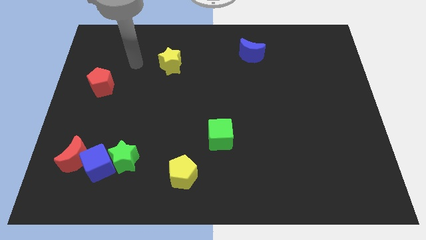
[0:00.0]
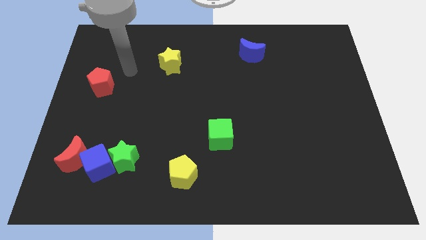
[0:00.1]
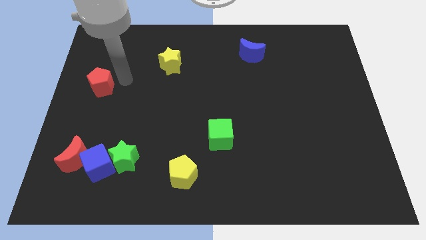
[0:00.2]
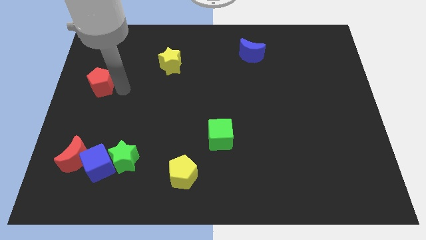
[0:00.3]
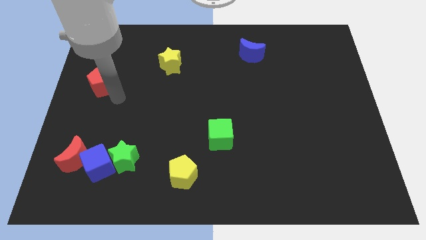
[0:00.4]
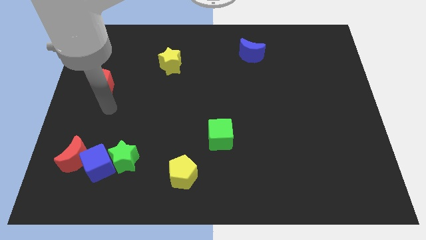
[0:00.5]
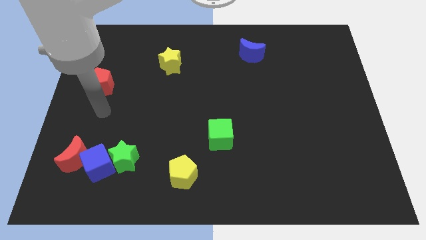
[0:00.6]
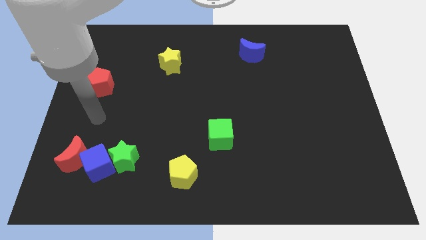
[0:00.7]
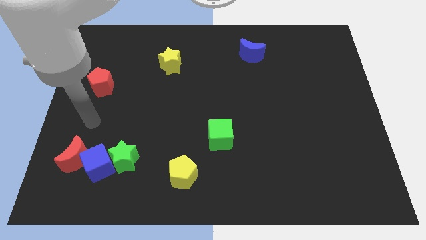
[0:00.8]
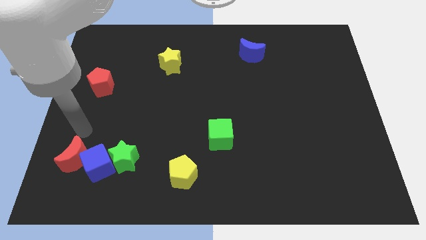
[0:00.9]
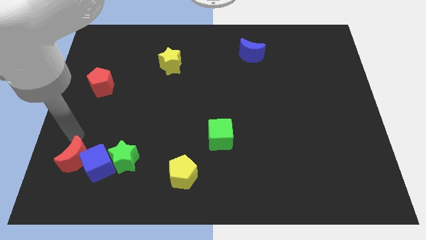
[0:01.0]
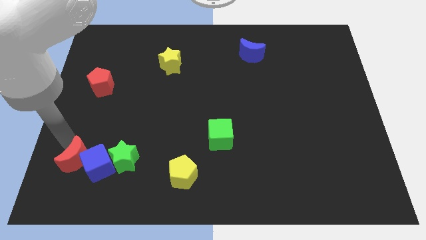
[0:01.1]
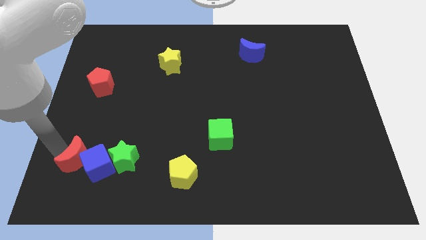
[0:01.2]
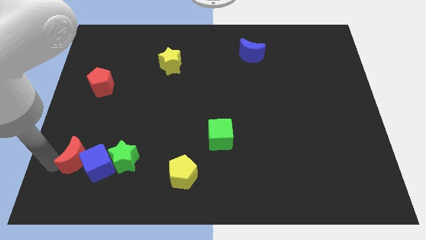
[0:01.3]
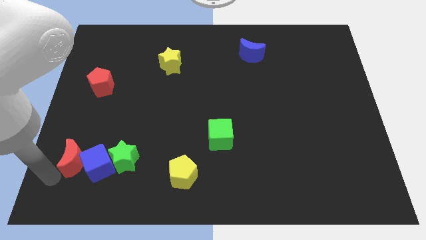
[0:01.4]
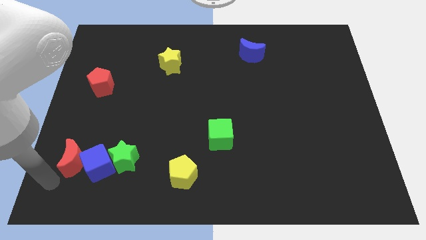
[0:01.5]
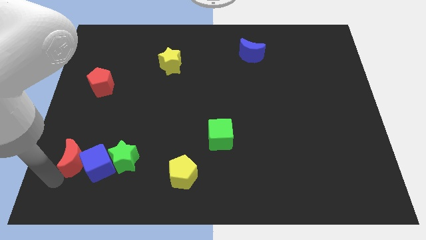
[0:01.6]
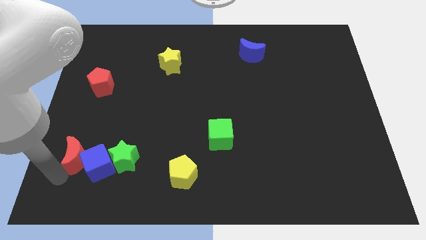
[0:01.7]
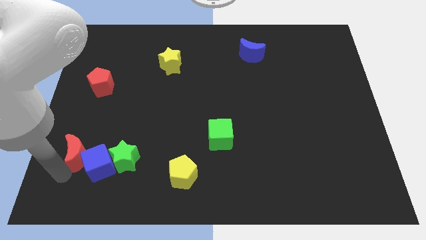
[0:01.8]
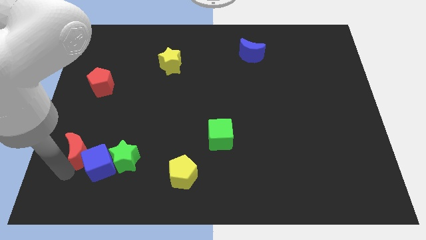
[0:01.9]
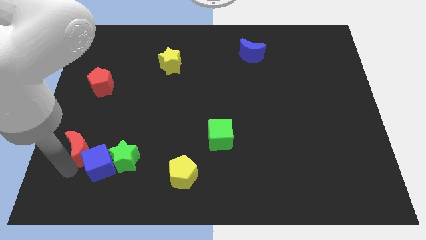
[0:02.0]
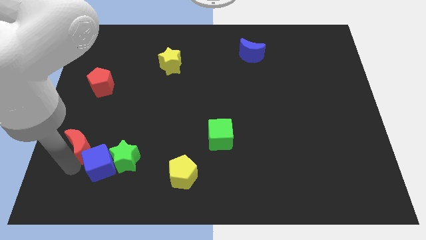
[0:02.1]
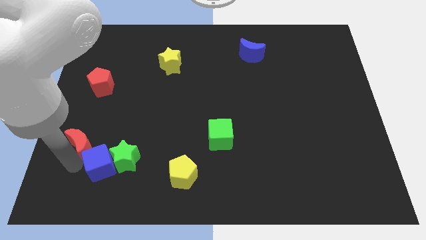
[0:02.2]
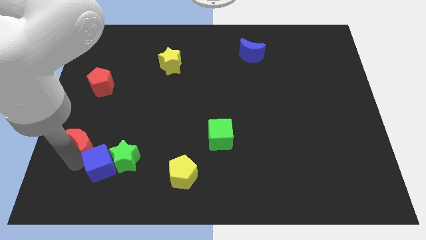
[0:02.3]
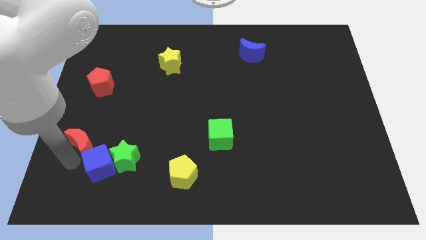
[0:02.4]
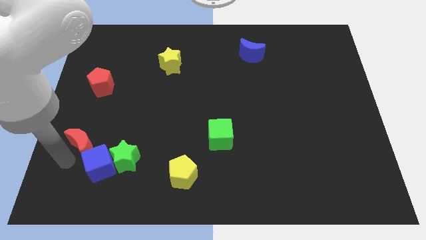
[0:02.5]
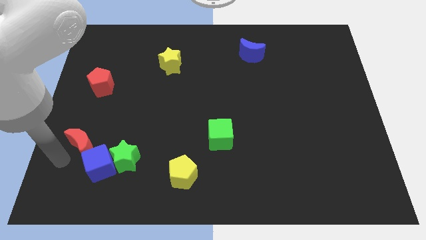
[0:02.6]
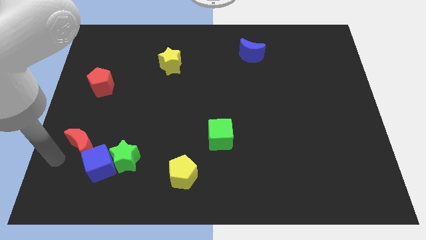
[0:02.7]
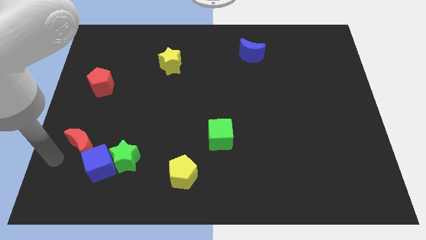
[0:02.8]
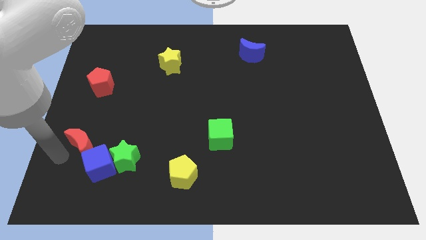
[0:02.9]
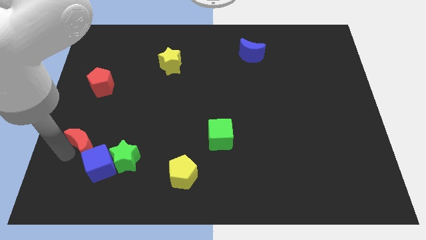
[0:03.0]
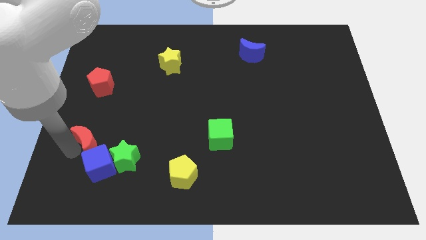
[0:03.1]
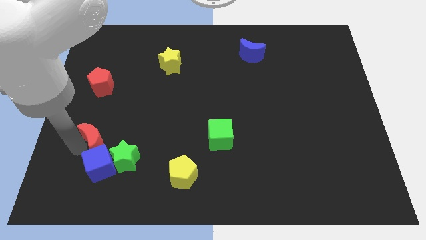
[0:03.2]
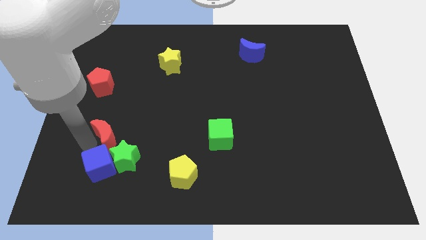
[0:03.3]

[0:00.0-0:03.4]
slide the red moon up and to the right diagonally somewhat

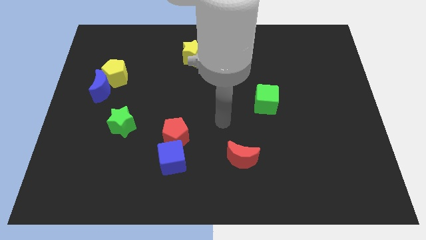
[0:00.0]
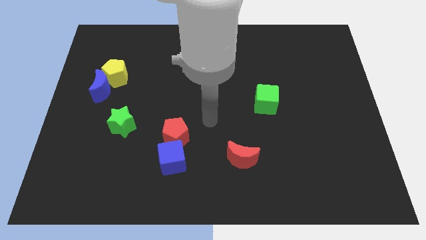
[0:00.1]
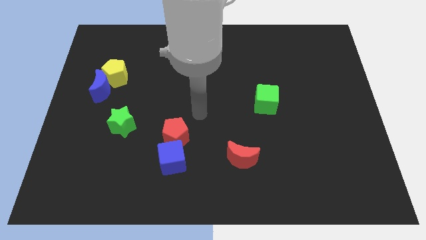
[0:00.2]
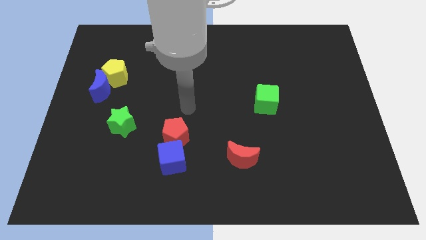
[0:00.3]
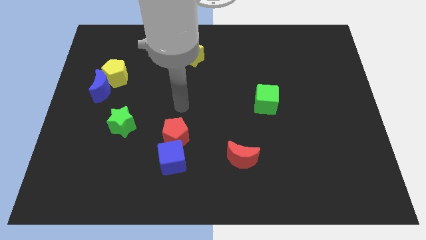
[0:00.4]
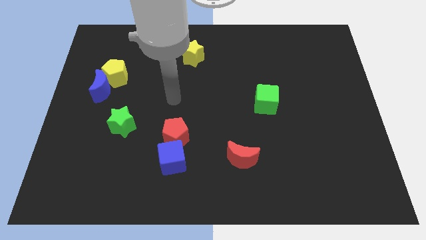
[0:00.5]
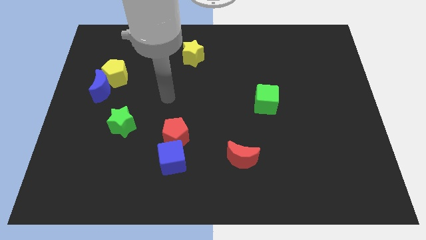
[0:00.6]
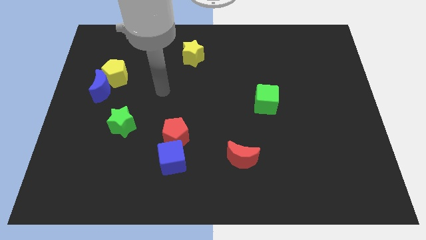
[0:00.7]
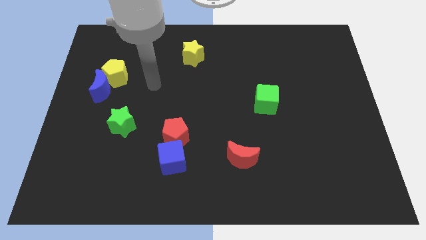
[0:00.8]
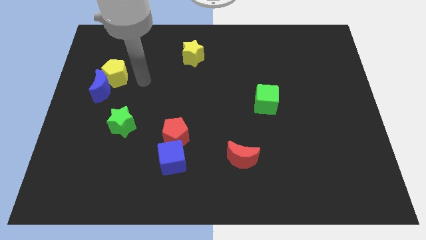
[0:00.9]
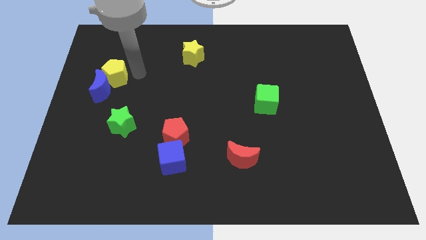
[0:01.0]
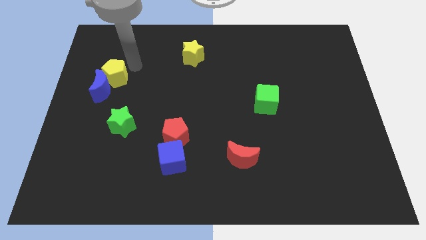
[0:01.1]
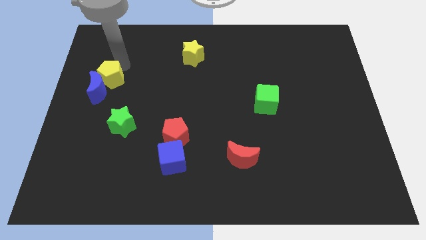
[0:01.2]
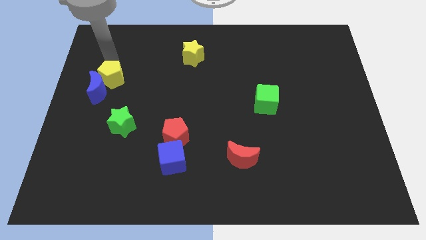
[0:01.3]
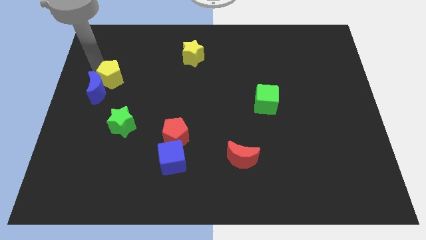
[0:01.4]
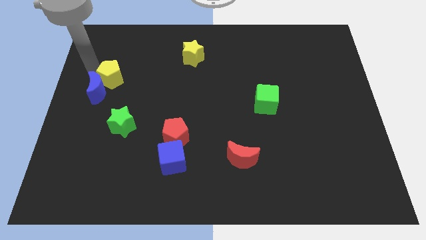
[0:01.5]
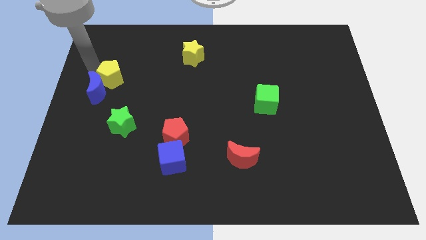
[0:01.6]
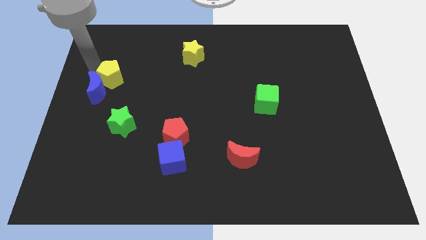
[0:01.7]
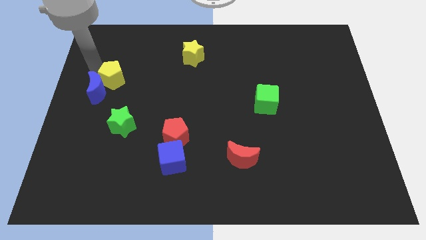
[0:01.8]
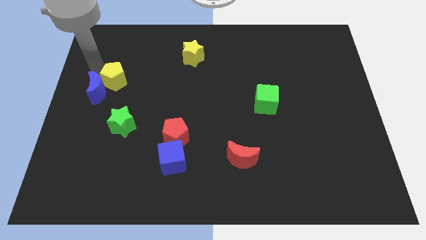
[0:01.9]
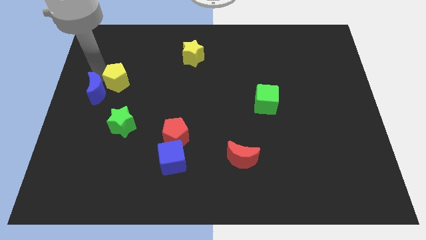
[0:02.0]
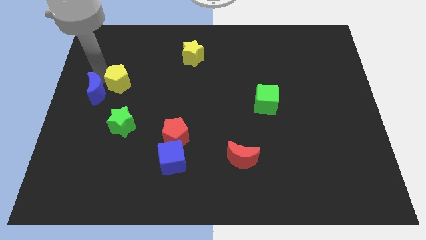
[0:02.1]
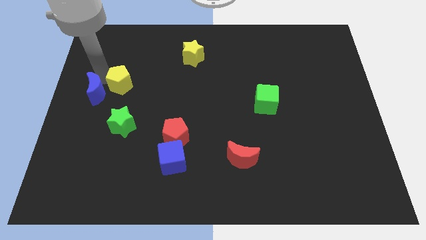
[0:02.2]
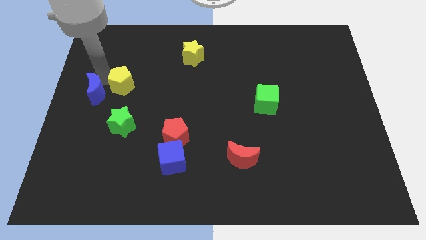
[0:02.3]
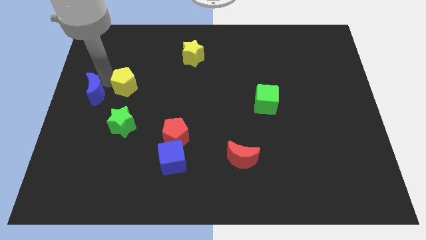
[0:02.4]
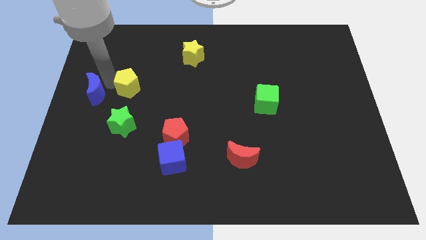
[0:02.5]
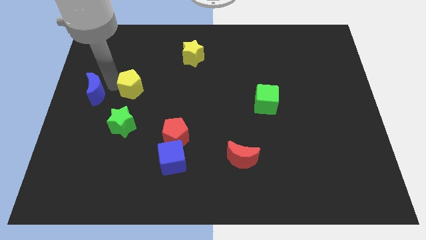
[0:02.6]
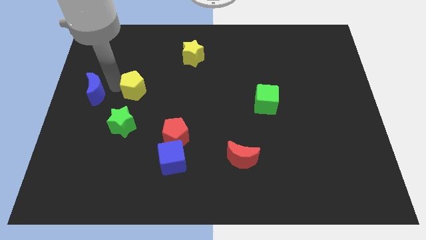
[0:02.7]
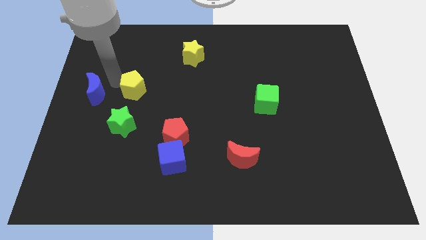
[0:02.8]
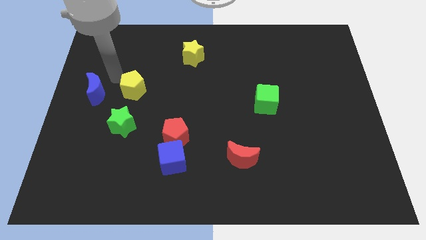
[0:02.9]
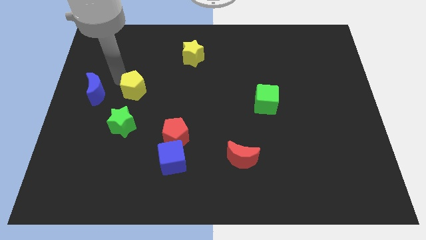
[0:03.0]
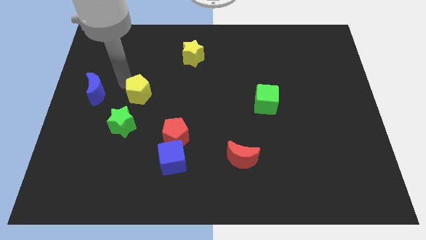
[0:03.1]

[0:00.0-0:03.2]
slightly slide the yellow pentagon diagonally down and to the right

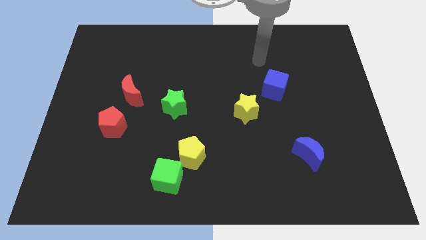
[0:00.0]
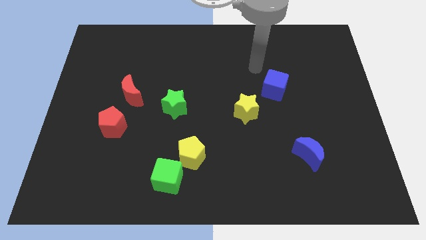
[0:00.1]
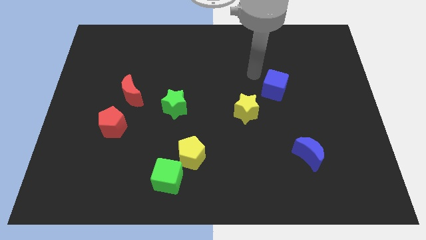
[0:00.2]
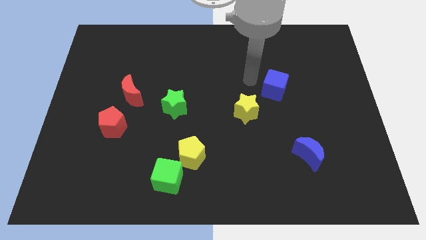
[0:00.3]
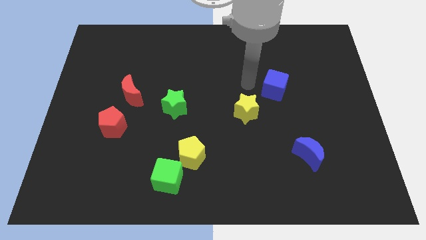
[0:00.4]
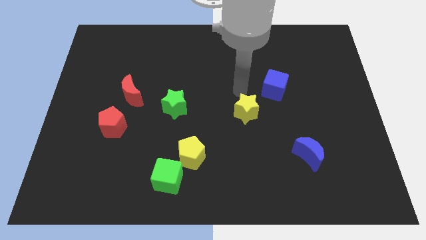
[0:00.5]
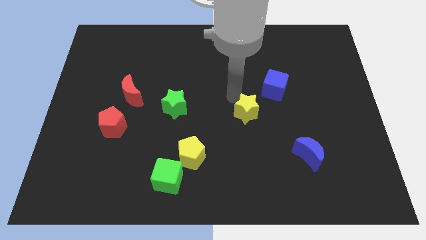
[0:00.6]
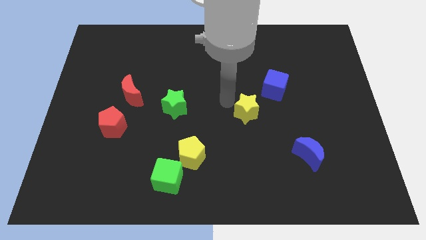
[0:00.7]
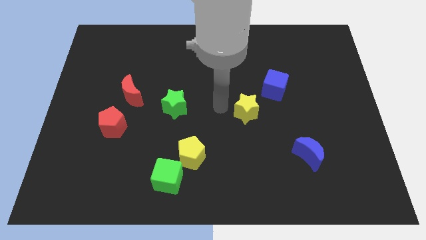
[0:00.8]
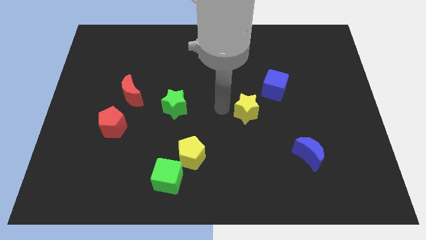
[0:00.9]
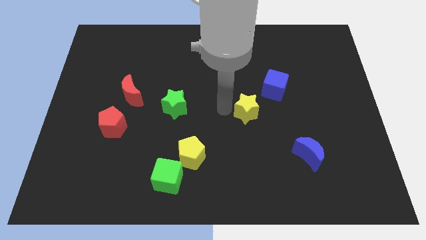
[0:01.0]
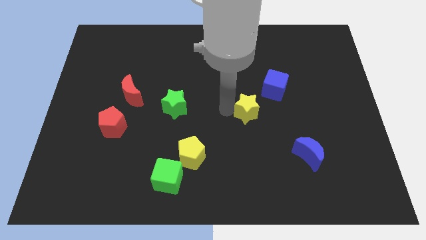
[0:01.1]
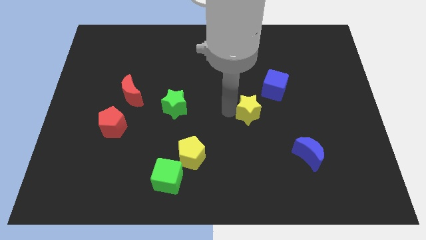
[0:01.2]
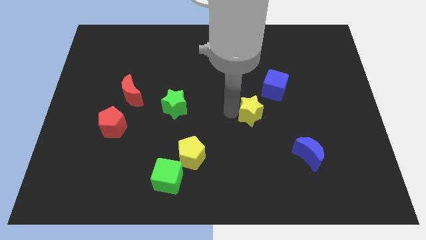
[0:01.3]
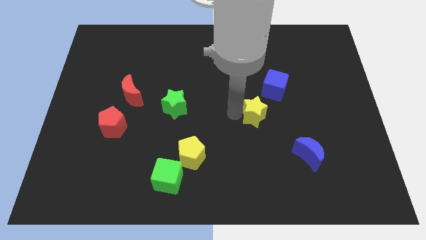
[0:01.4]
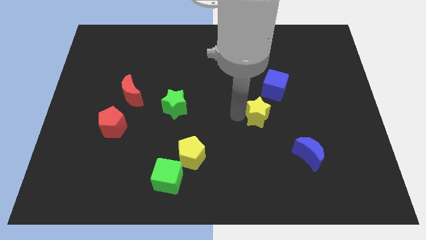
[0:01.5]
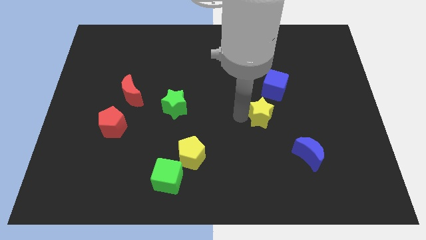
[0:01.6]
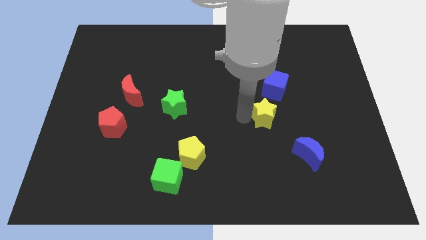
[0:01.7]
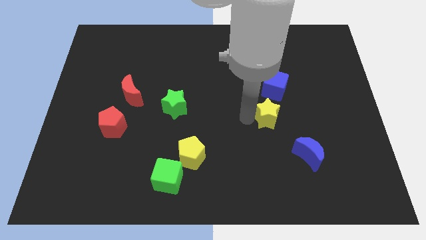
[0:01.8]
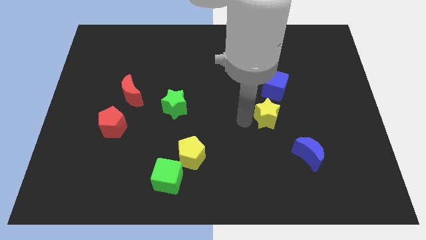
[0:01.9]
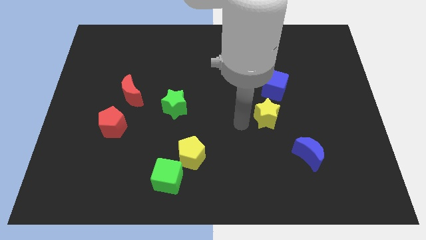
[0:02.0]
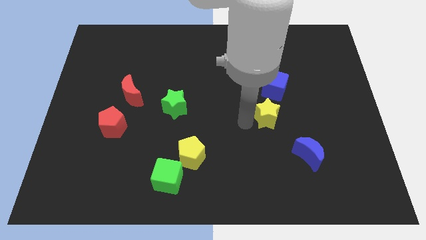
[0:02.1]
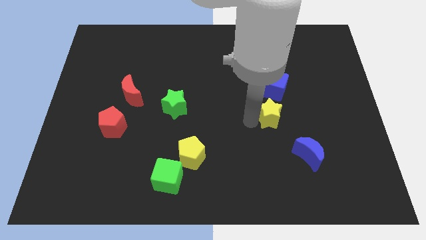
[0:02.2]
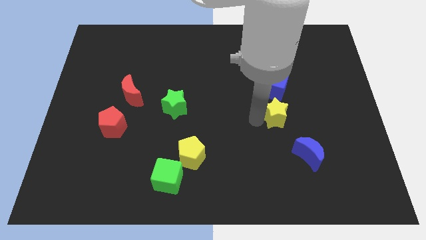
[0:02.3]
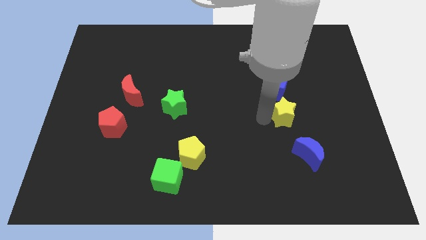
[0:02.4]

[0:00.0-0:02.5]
push the yellow star to the right somewhat
